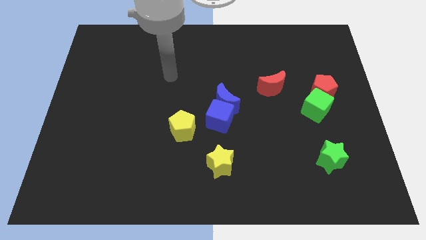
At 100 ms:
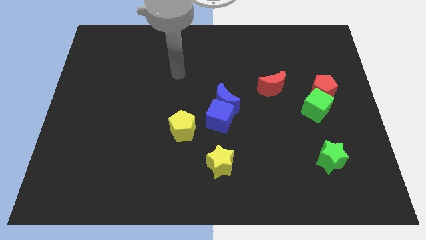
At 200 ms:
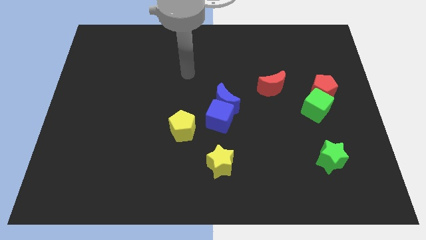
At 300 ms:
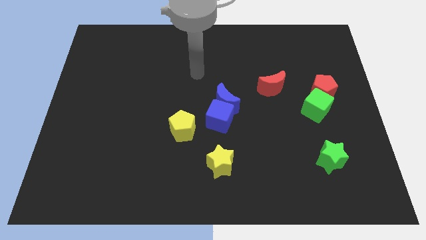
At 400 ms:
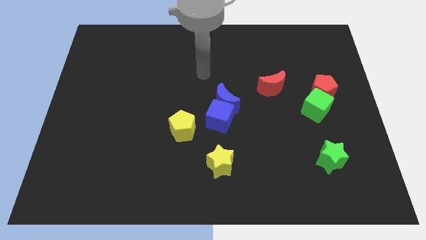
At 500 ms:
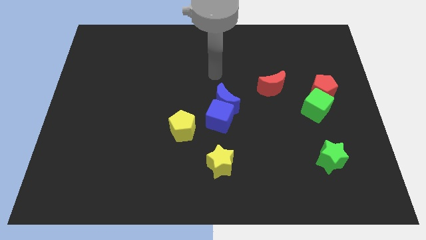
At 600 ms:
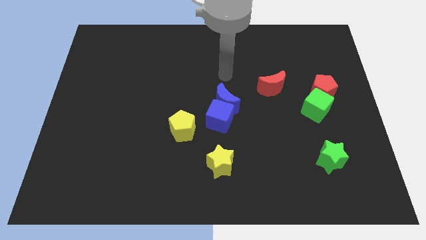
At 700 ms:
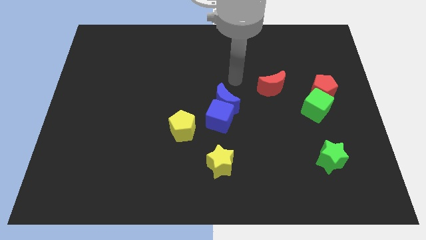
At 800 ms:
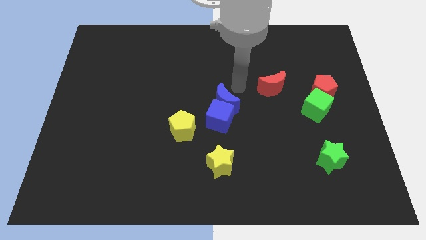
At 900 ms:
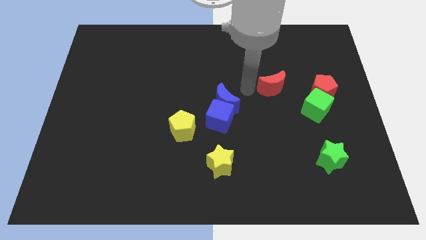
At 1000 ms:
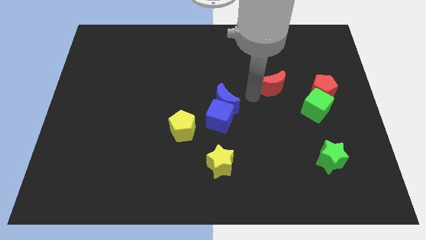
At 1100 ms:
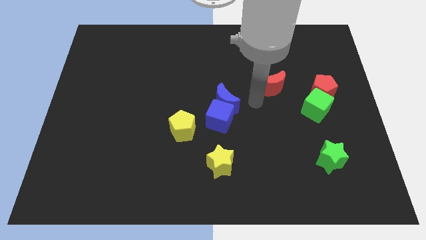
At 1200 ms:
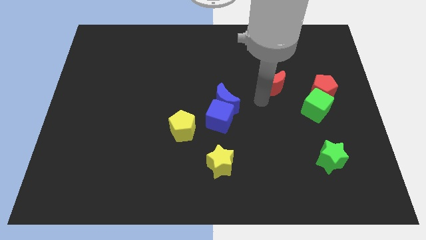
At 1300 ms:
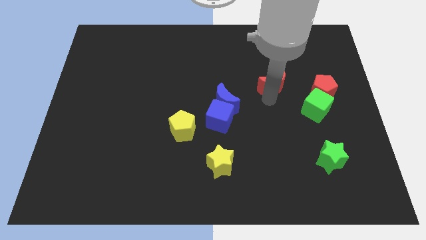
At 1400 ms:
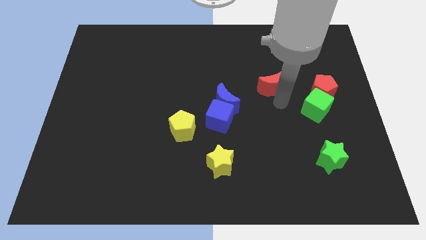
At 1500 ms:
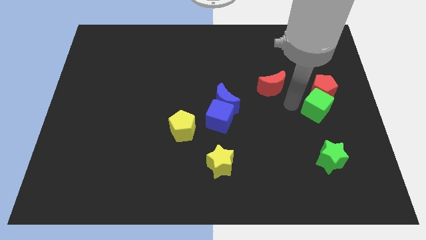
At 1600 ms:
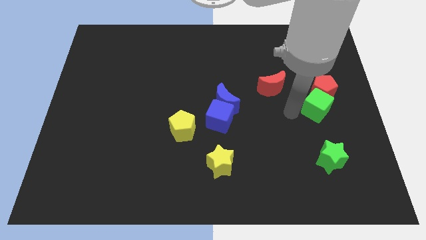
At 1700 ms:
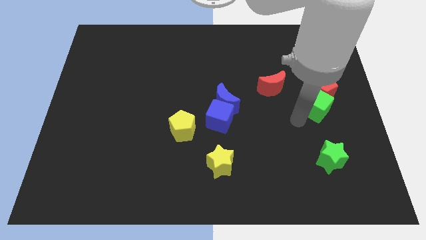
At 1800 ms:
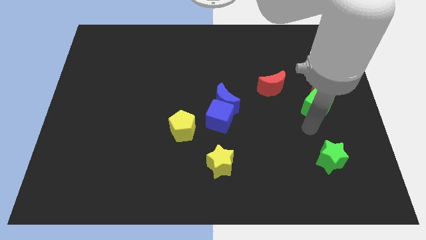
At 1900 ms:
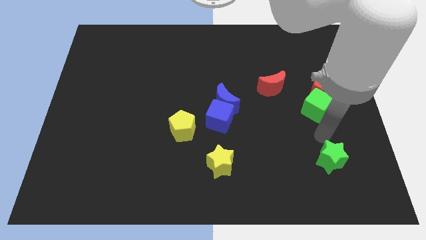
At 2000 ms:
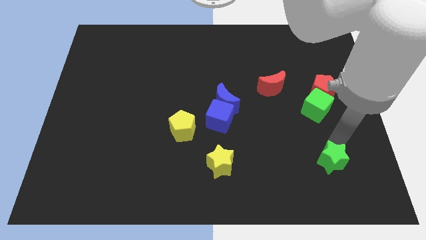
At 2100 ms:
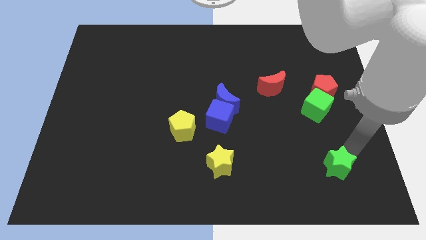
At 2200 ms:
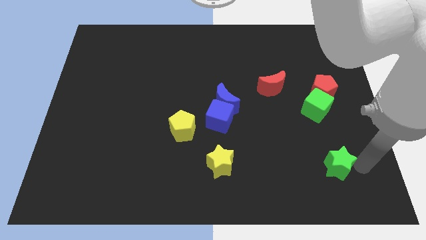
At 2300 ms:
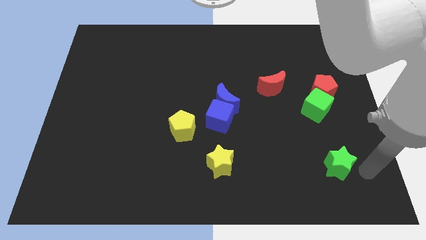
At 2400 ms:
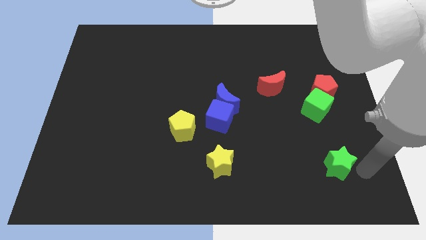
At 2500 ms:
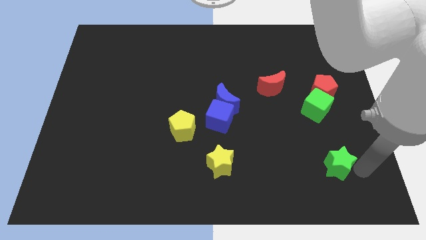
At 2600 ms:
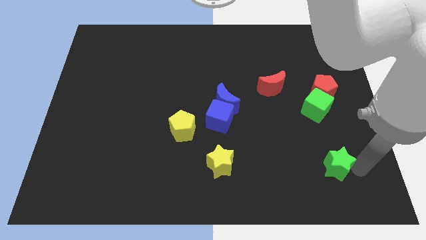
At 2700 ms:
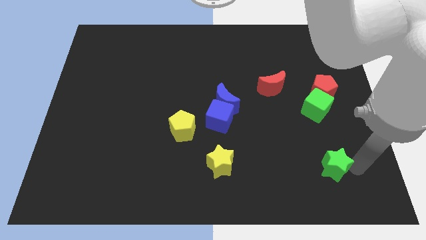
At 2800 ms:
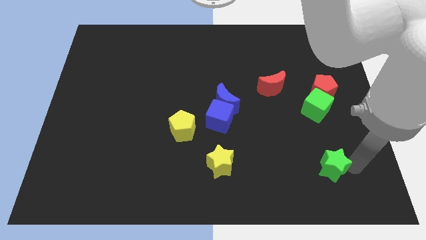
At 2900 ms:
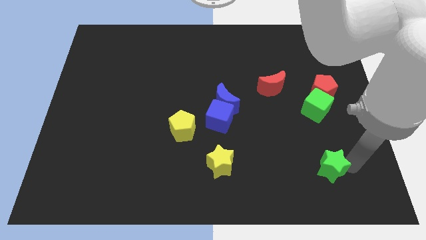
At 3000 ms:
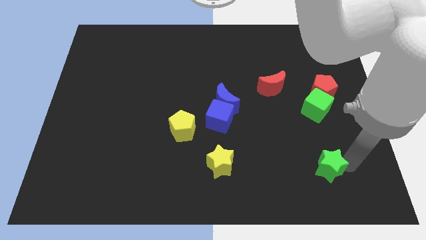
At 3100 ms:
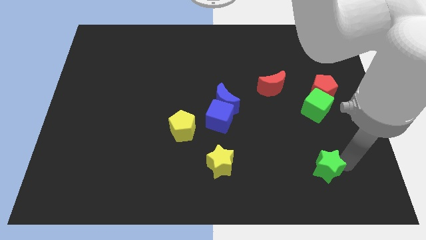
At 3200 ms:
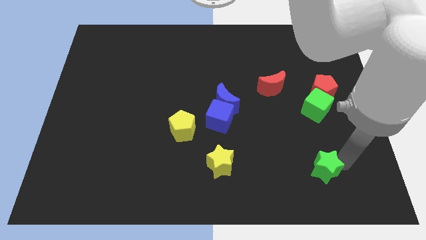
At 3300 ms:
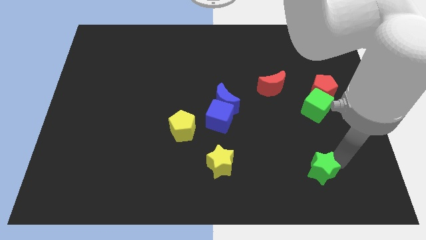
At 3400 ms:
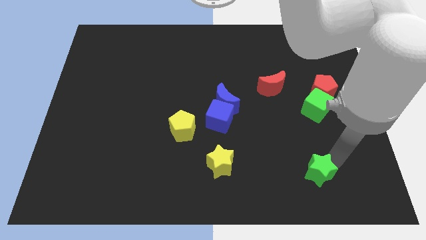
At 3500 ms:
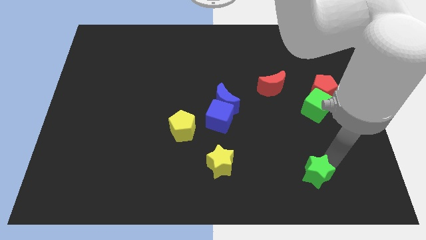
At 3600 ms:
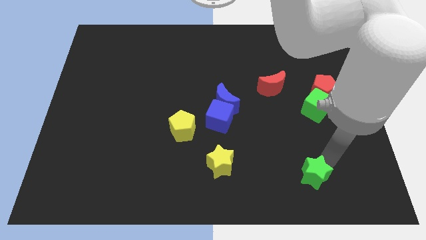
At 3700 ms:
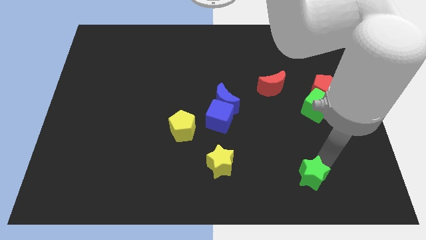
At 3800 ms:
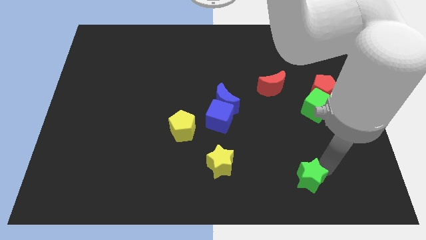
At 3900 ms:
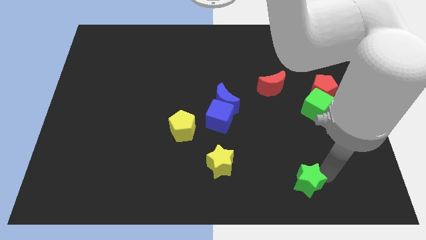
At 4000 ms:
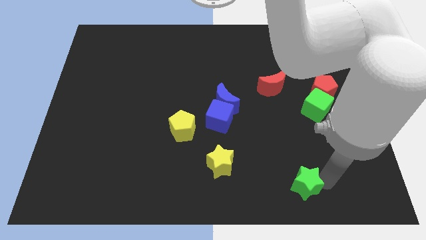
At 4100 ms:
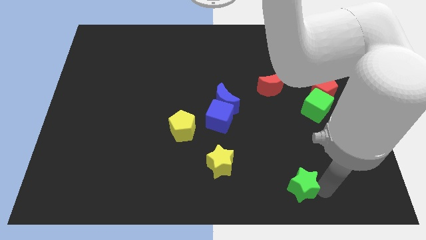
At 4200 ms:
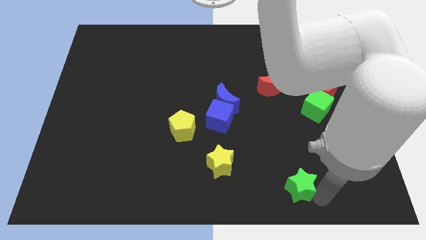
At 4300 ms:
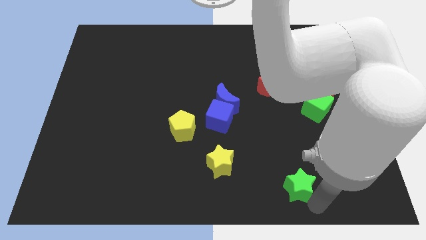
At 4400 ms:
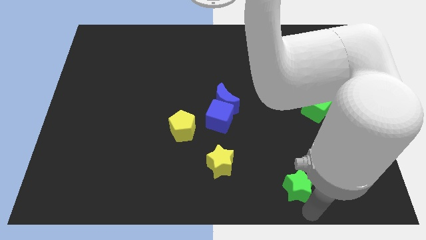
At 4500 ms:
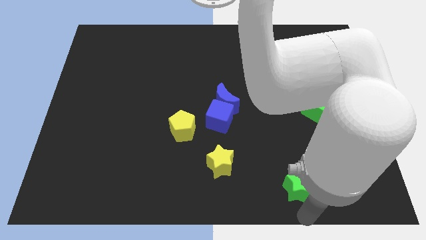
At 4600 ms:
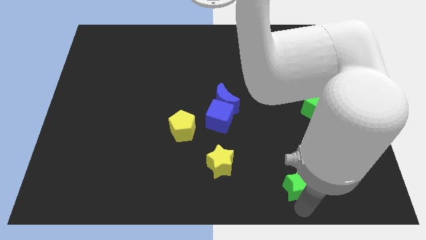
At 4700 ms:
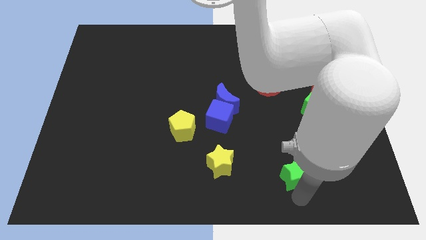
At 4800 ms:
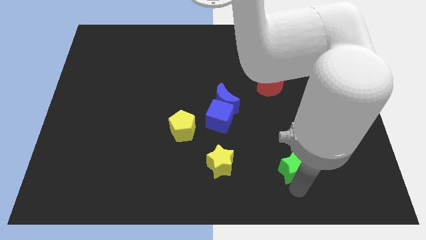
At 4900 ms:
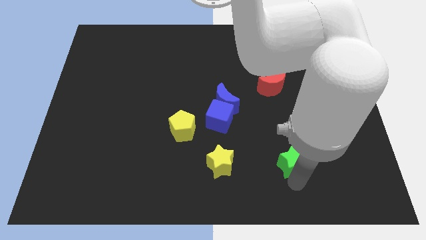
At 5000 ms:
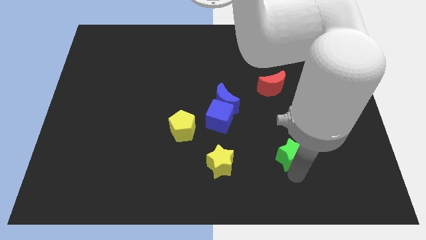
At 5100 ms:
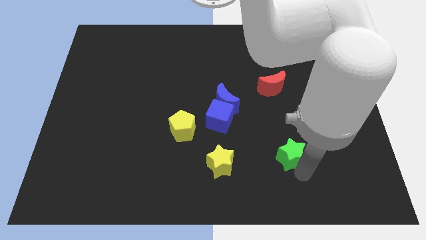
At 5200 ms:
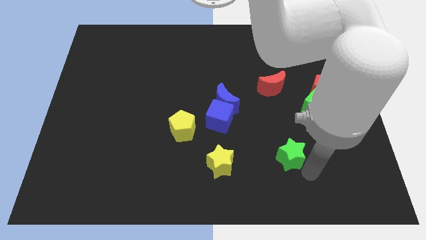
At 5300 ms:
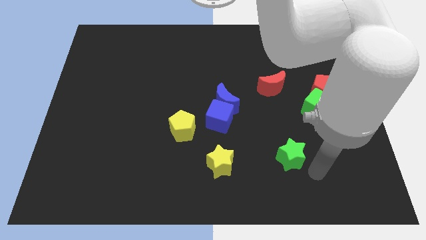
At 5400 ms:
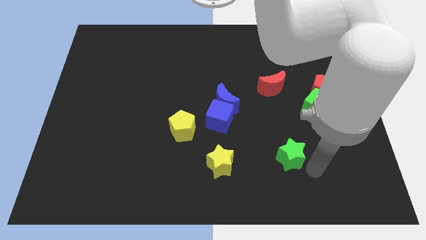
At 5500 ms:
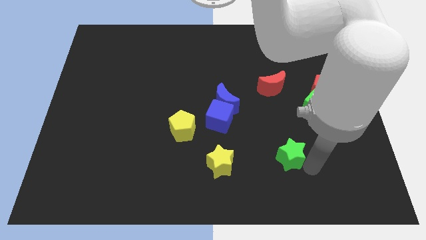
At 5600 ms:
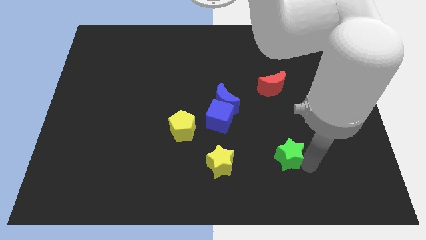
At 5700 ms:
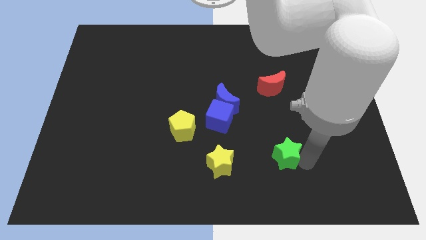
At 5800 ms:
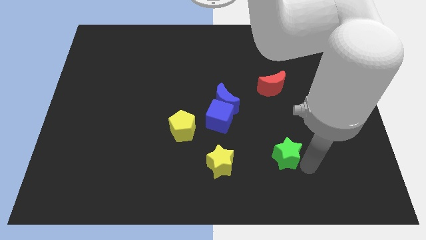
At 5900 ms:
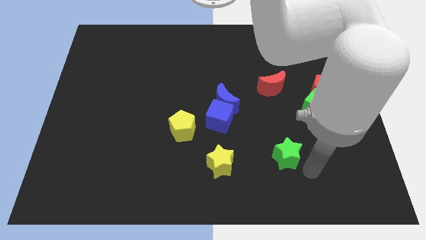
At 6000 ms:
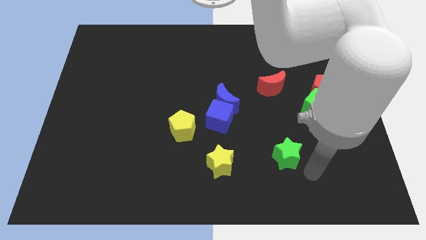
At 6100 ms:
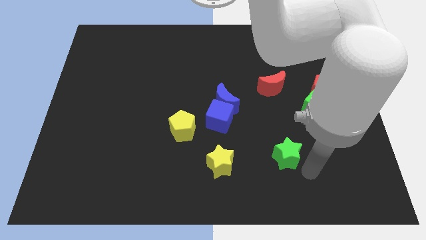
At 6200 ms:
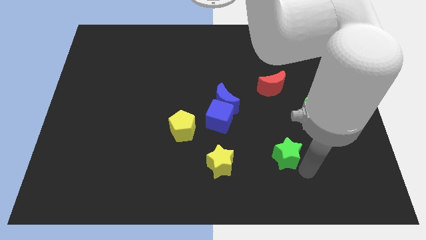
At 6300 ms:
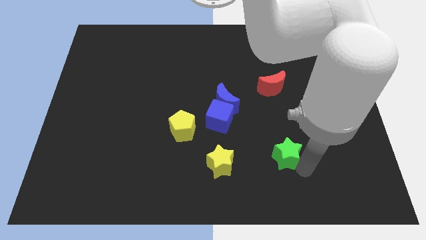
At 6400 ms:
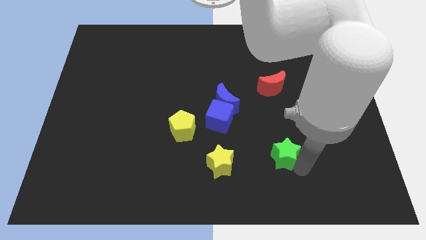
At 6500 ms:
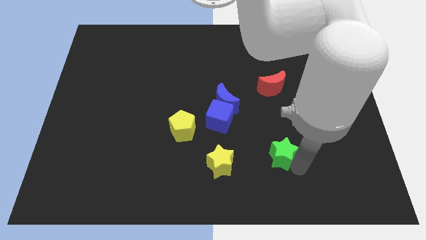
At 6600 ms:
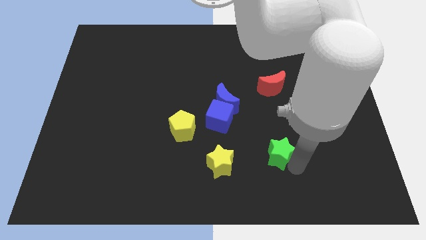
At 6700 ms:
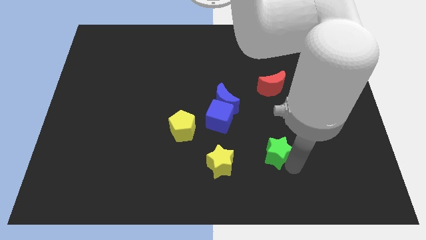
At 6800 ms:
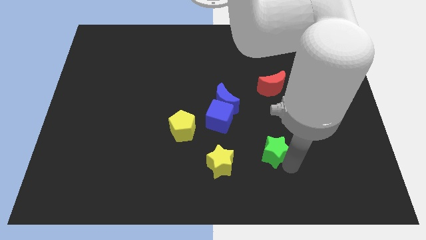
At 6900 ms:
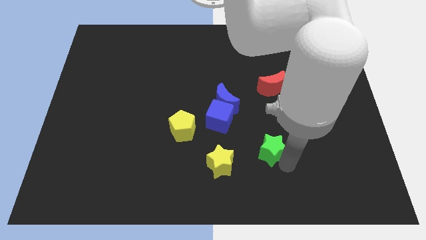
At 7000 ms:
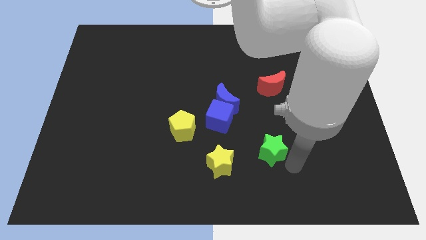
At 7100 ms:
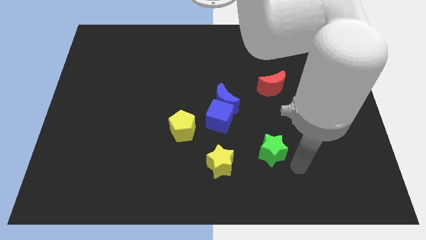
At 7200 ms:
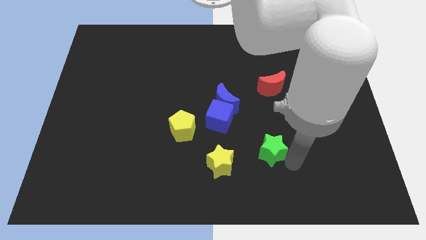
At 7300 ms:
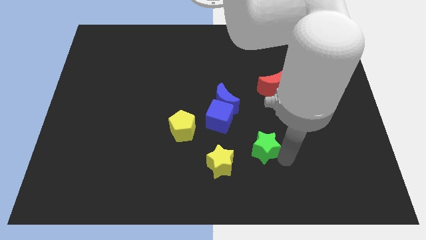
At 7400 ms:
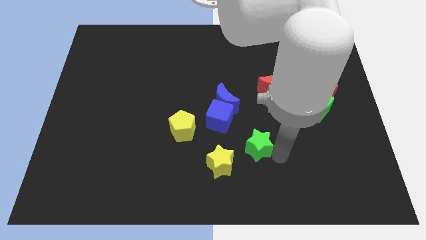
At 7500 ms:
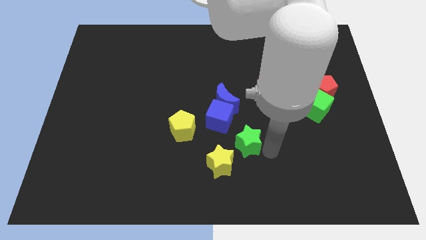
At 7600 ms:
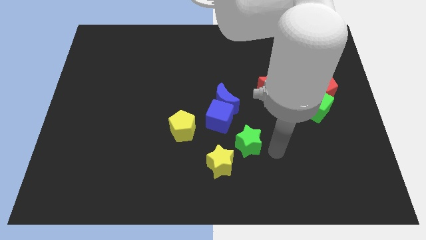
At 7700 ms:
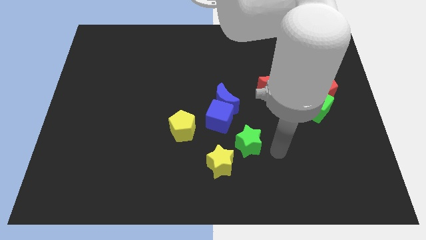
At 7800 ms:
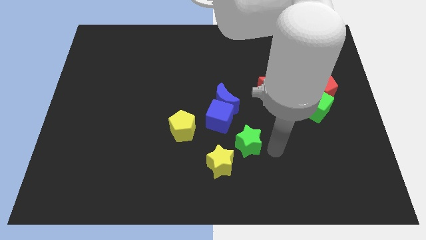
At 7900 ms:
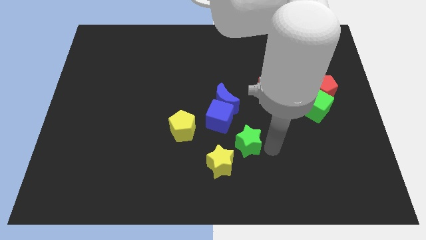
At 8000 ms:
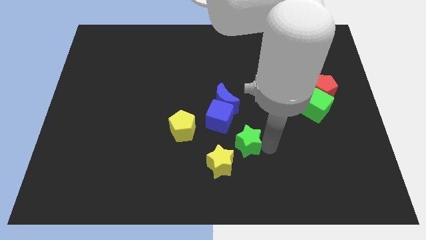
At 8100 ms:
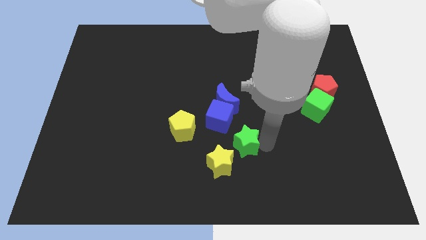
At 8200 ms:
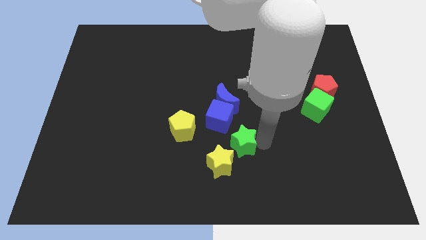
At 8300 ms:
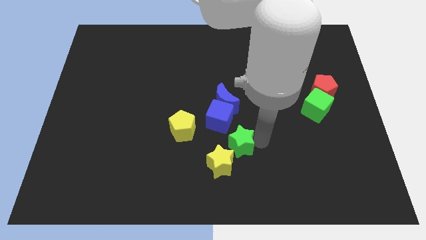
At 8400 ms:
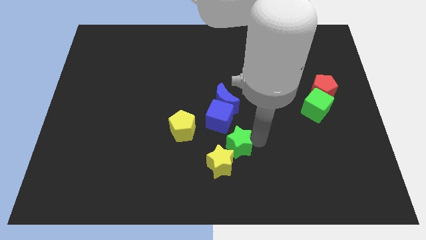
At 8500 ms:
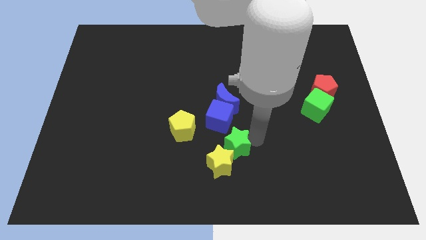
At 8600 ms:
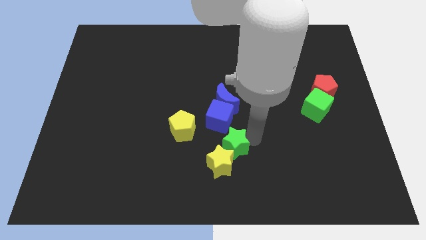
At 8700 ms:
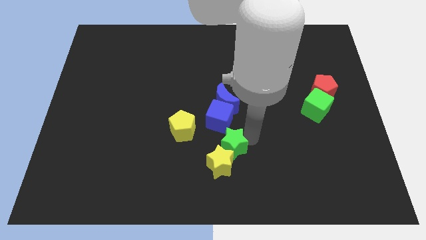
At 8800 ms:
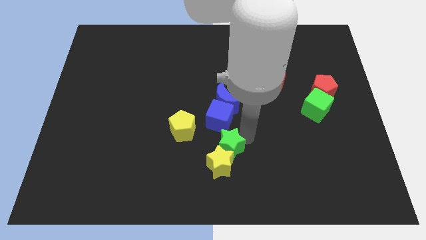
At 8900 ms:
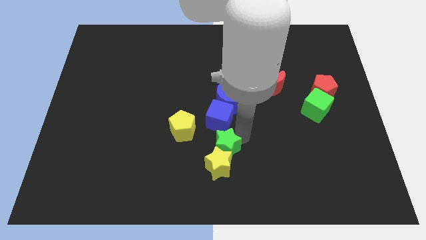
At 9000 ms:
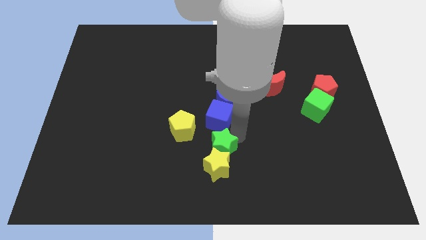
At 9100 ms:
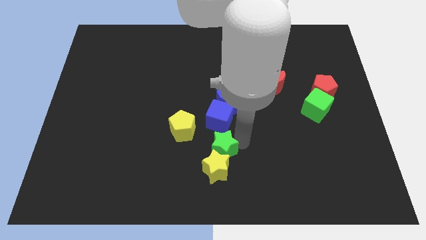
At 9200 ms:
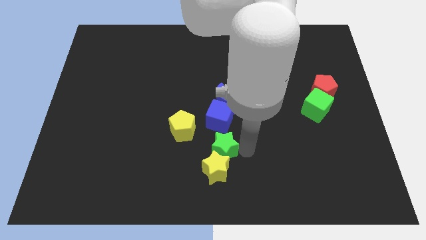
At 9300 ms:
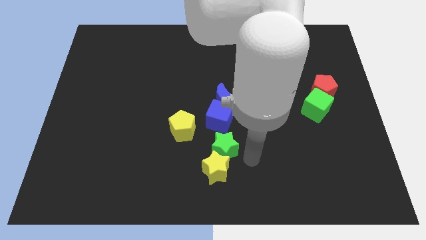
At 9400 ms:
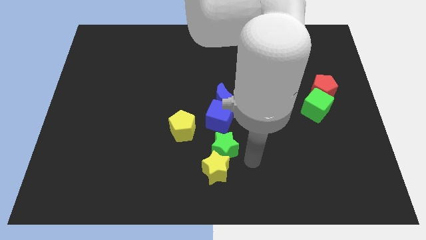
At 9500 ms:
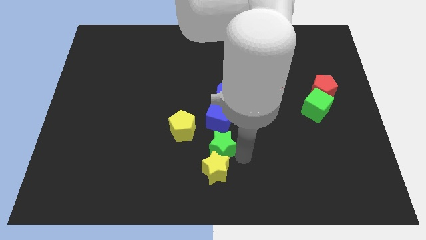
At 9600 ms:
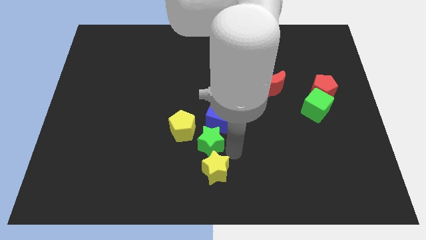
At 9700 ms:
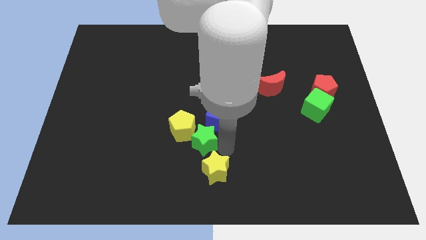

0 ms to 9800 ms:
push the green star to the yellow pentagon
